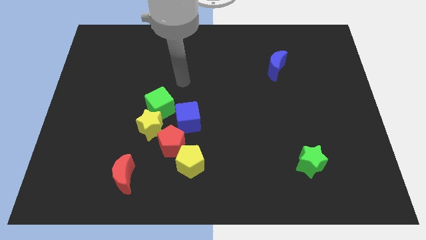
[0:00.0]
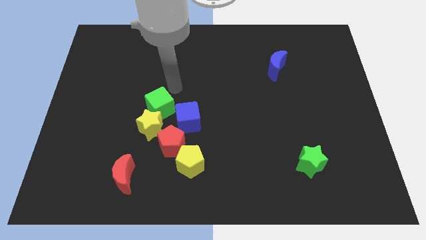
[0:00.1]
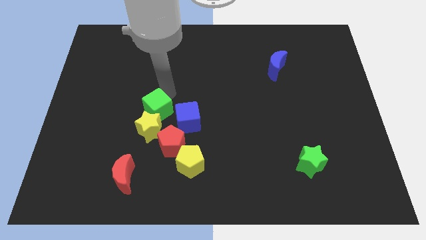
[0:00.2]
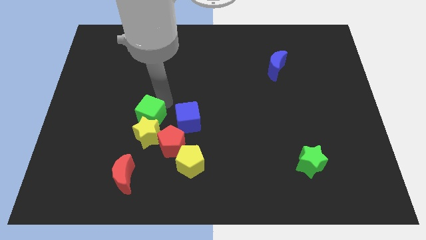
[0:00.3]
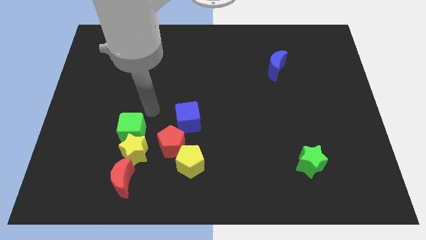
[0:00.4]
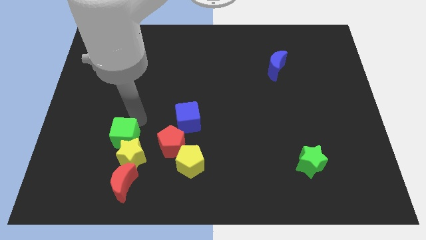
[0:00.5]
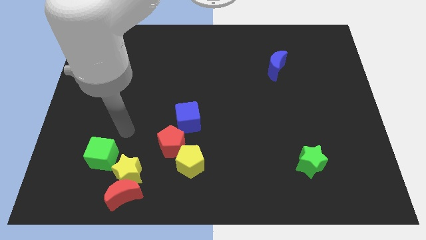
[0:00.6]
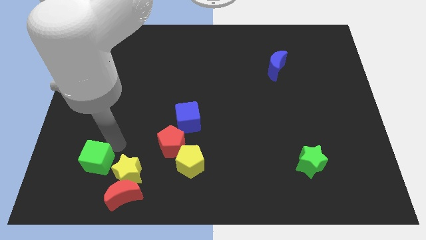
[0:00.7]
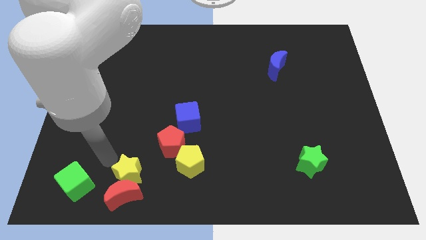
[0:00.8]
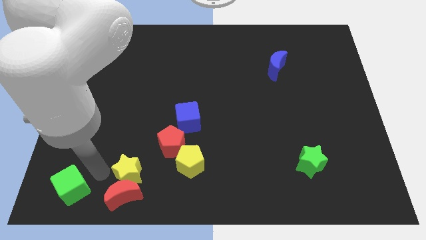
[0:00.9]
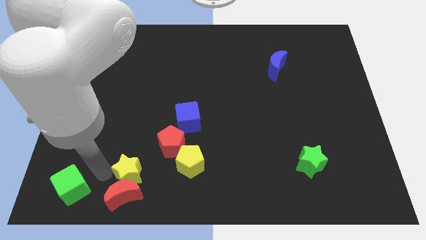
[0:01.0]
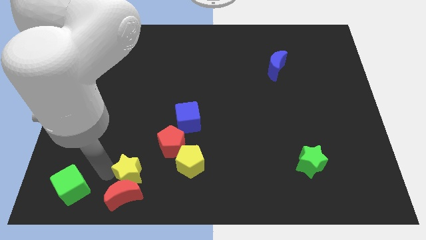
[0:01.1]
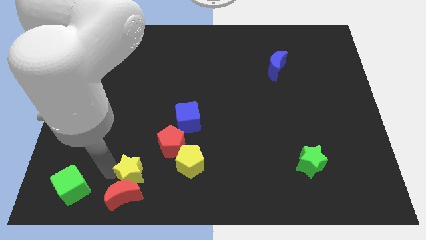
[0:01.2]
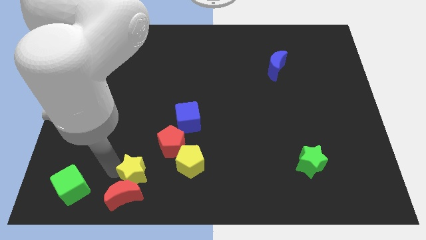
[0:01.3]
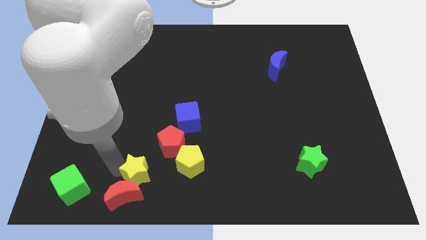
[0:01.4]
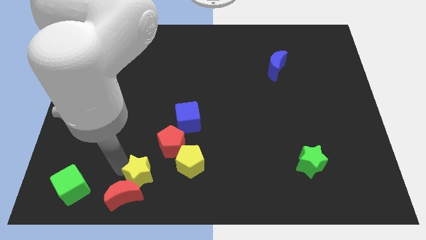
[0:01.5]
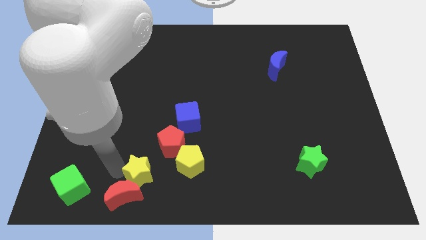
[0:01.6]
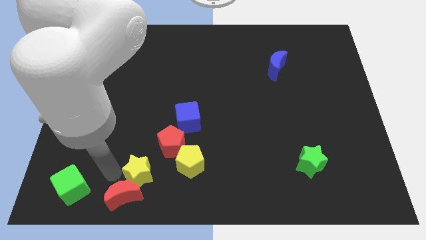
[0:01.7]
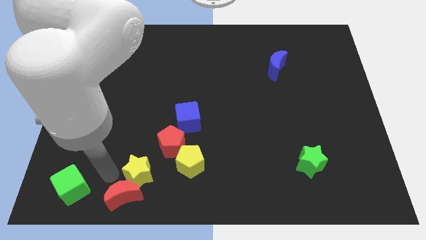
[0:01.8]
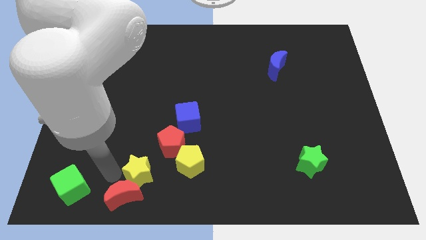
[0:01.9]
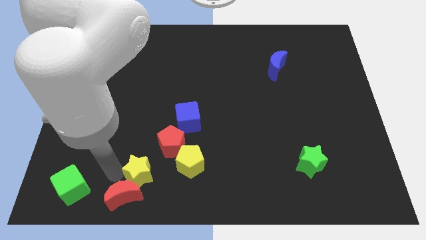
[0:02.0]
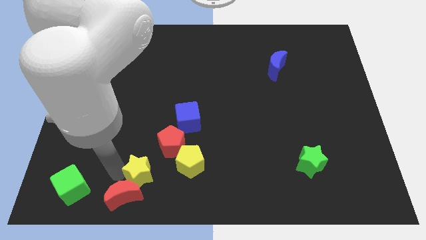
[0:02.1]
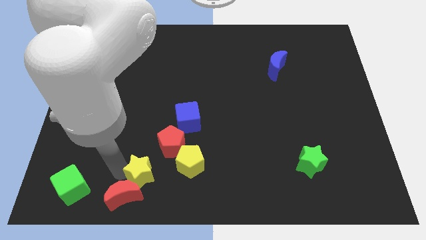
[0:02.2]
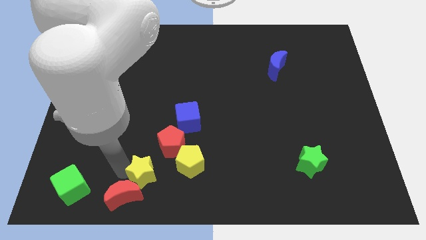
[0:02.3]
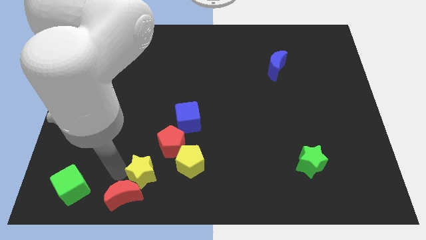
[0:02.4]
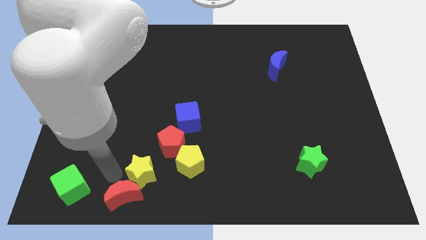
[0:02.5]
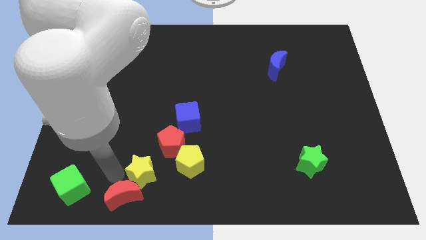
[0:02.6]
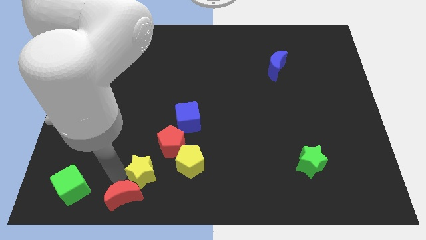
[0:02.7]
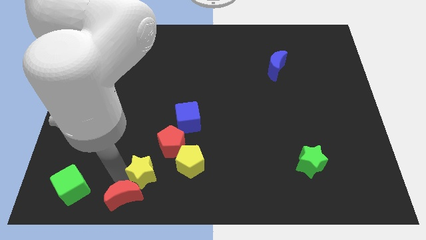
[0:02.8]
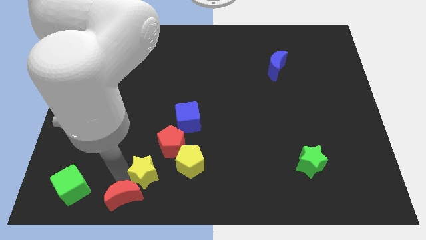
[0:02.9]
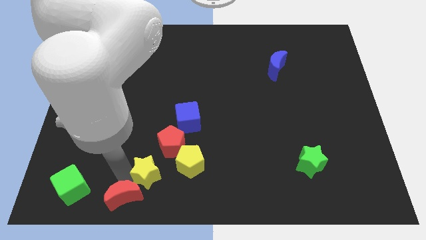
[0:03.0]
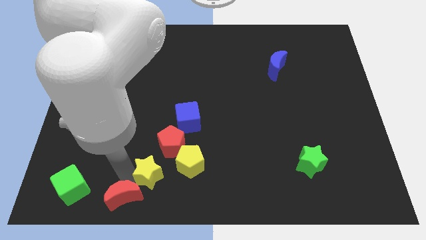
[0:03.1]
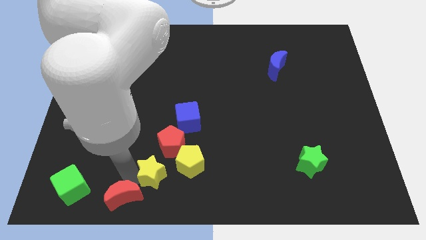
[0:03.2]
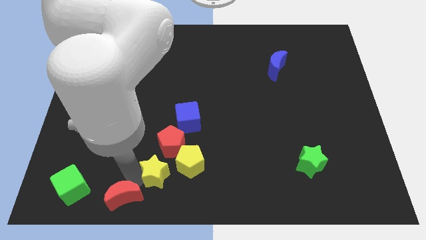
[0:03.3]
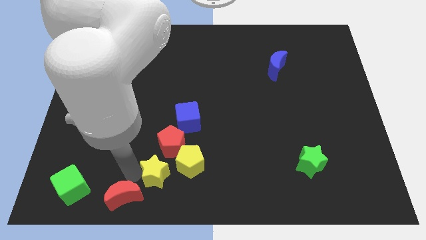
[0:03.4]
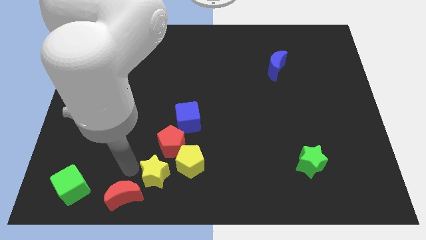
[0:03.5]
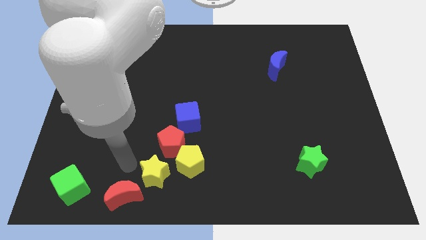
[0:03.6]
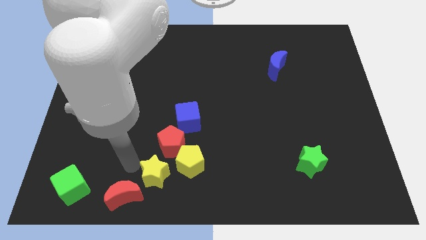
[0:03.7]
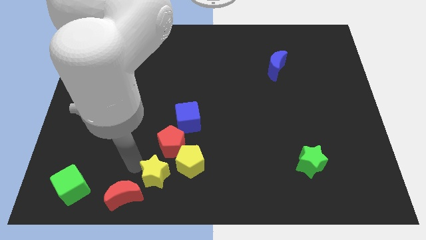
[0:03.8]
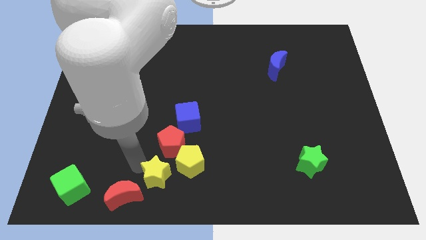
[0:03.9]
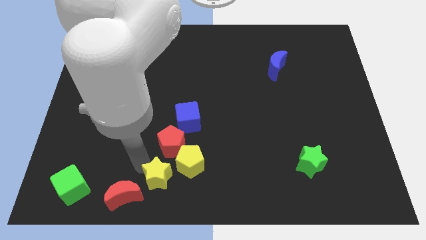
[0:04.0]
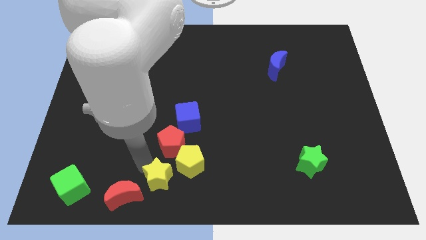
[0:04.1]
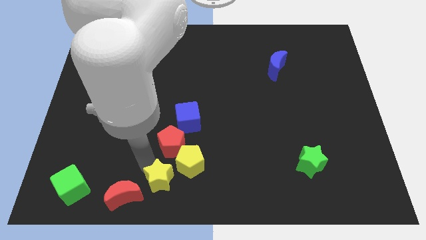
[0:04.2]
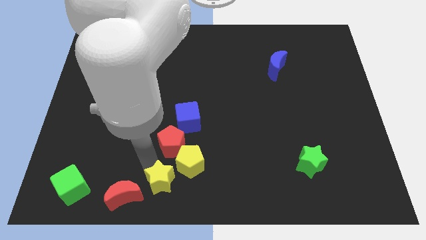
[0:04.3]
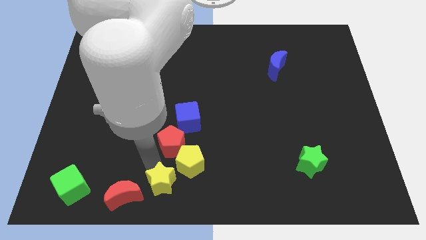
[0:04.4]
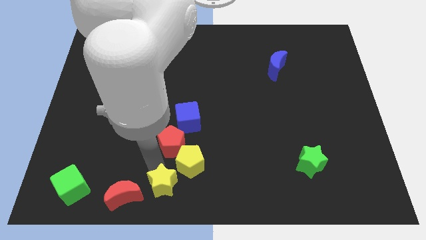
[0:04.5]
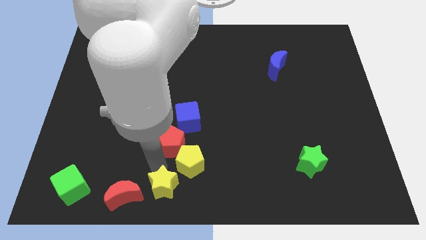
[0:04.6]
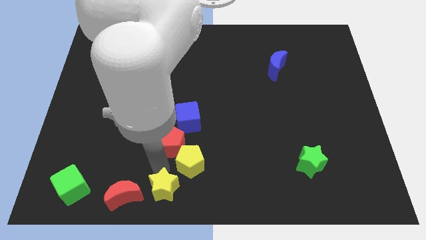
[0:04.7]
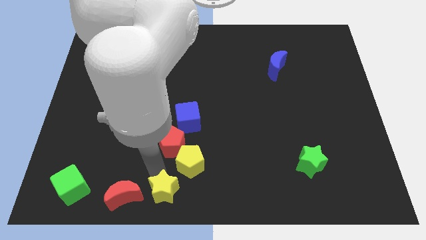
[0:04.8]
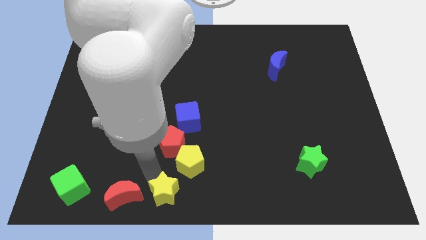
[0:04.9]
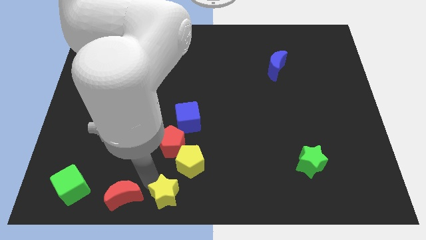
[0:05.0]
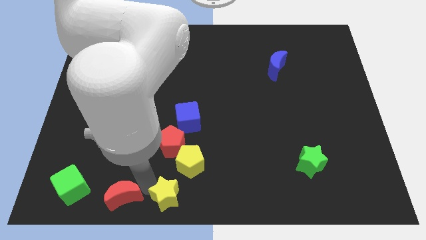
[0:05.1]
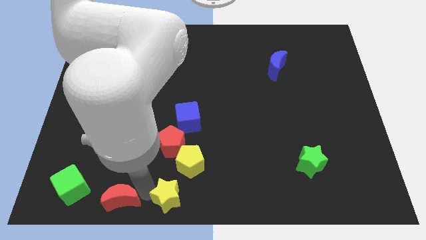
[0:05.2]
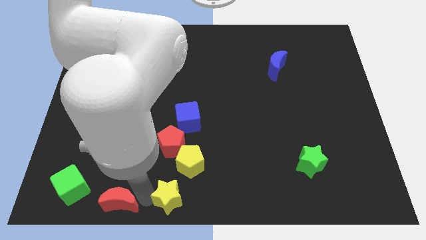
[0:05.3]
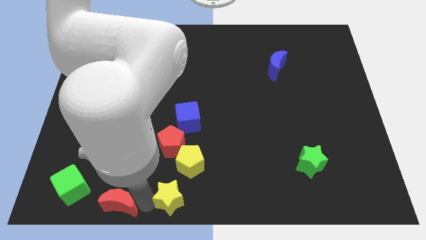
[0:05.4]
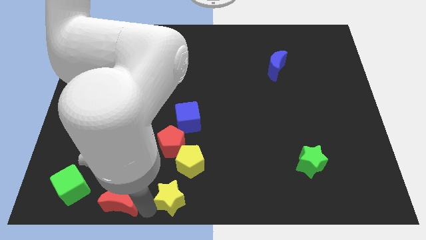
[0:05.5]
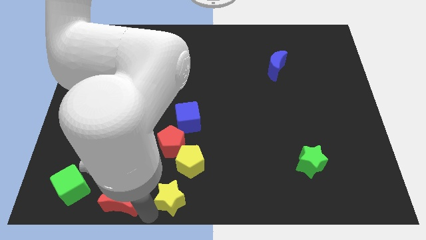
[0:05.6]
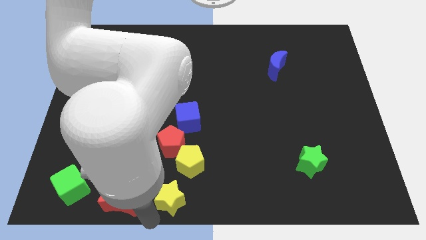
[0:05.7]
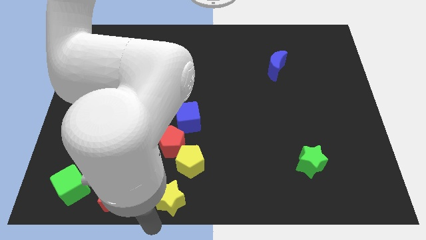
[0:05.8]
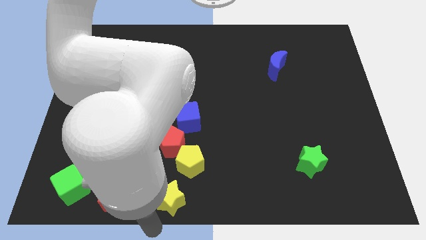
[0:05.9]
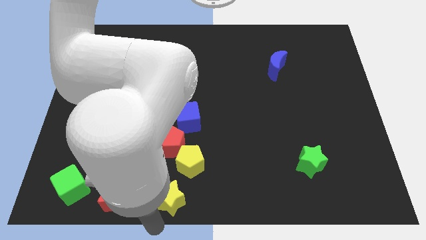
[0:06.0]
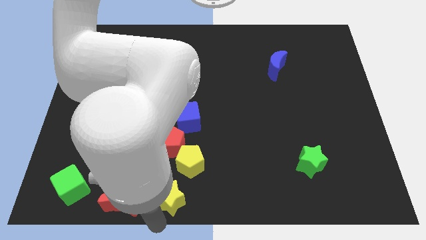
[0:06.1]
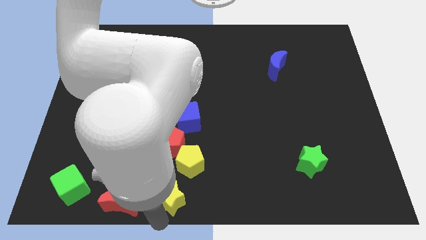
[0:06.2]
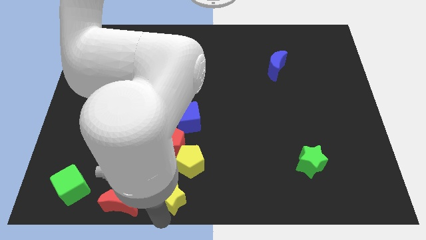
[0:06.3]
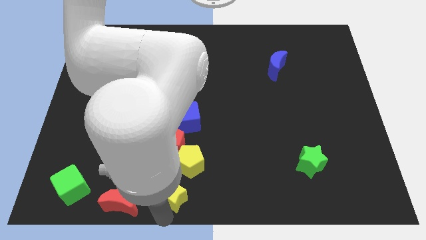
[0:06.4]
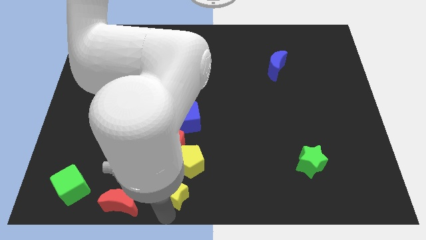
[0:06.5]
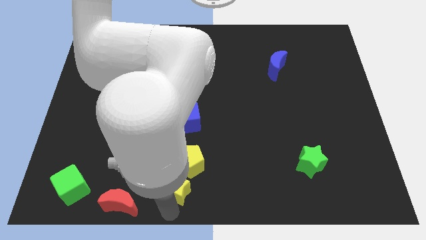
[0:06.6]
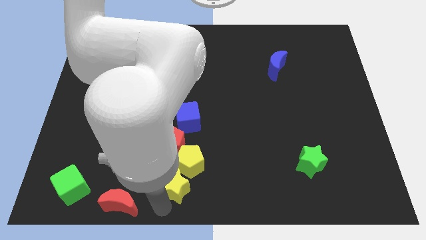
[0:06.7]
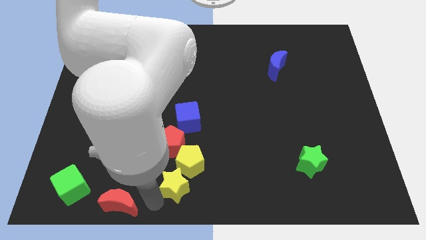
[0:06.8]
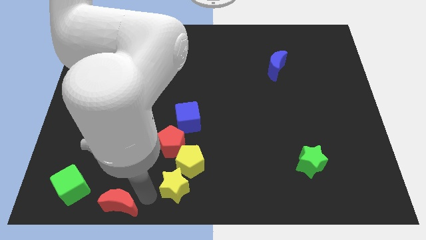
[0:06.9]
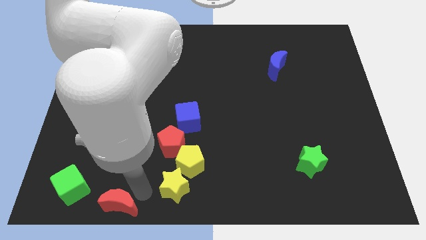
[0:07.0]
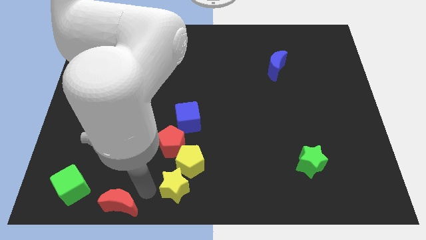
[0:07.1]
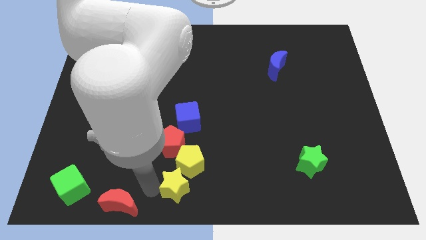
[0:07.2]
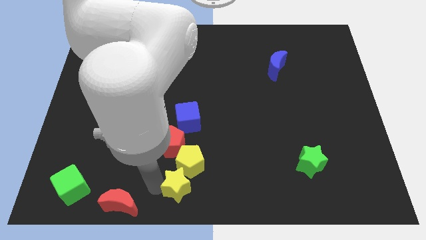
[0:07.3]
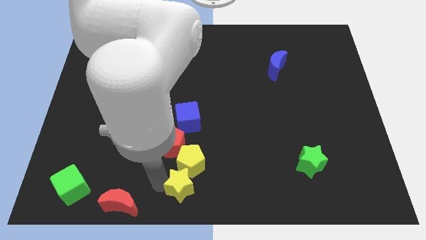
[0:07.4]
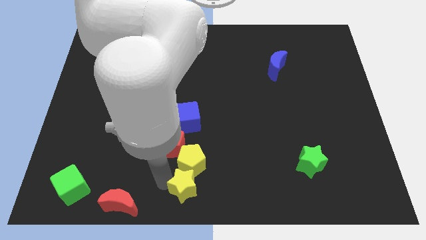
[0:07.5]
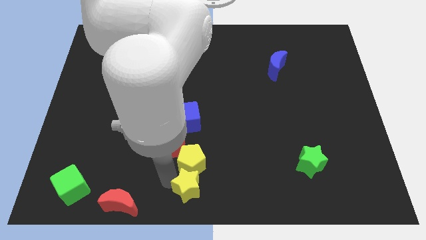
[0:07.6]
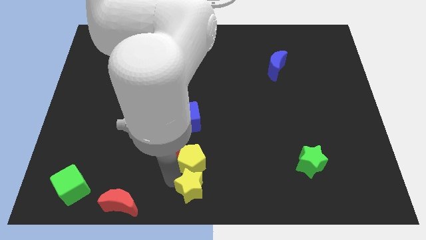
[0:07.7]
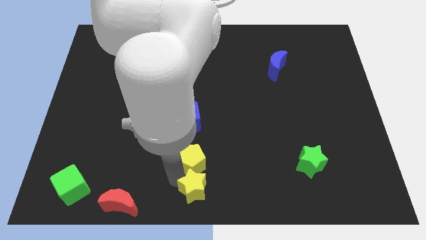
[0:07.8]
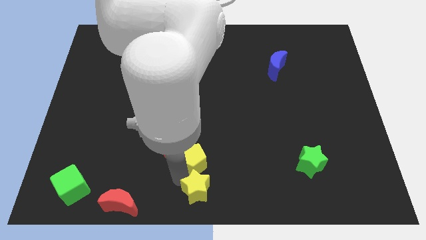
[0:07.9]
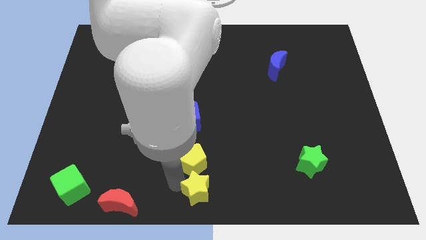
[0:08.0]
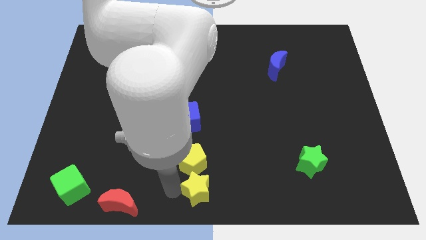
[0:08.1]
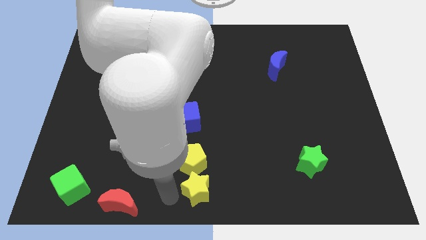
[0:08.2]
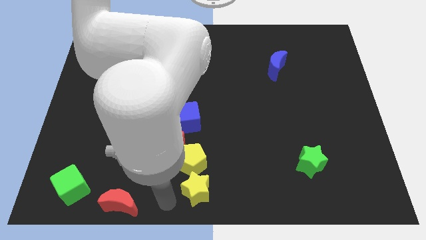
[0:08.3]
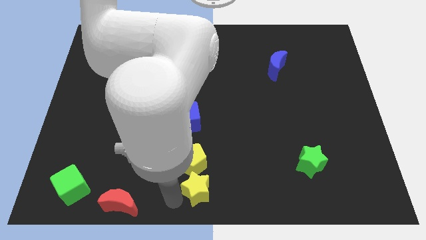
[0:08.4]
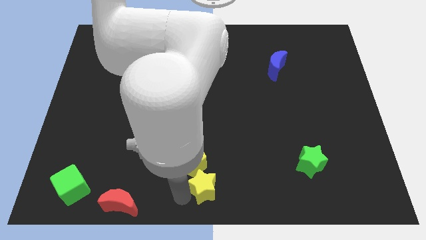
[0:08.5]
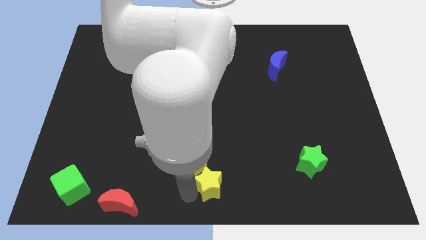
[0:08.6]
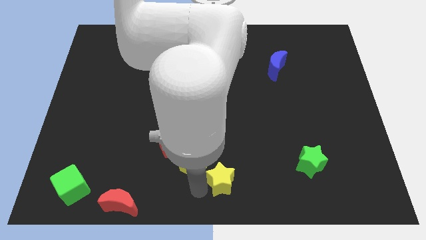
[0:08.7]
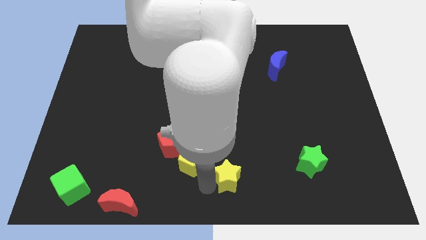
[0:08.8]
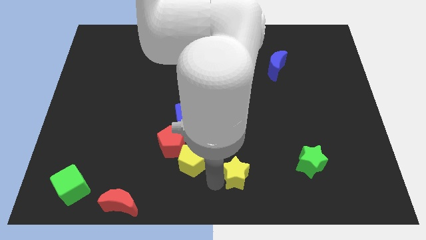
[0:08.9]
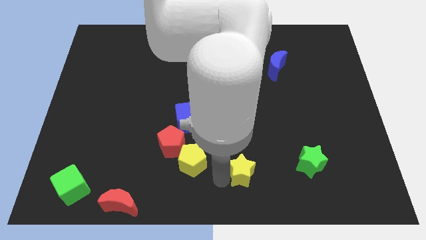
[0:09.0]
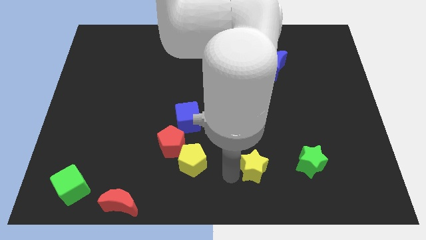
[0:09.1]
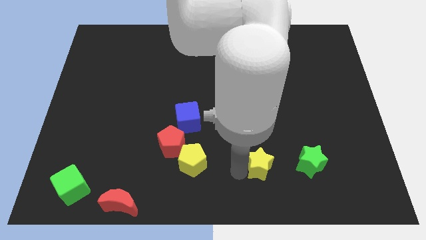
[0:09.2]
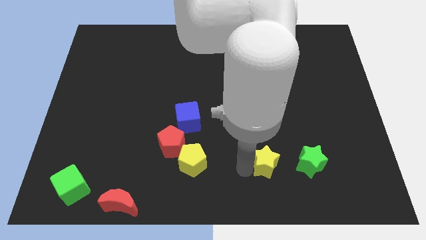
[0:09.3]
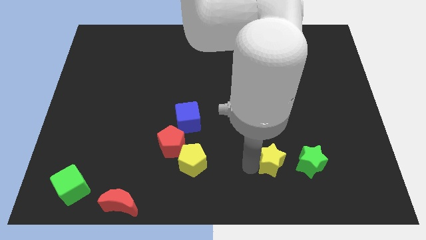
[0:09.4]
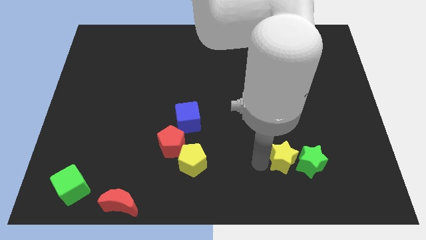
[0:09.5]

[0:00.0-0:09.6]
push the yellow star close to the green star
